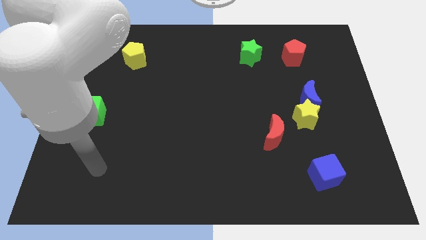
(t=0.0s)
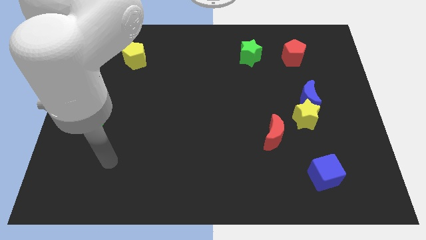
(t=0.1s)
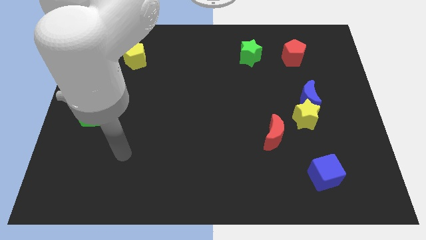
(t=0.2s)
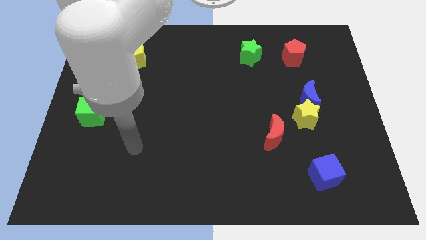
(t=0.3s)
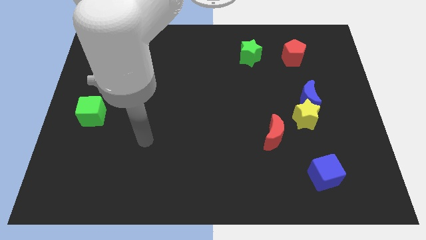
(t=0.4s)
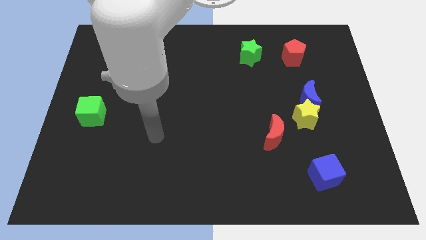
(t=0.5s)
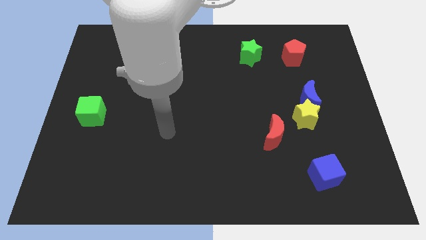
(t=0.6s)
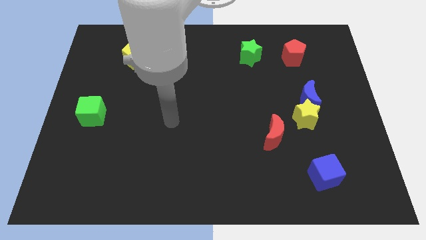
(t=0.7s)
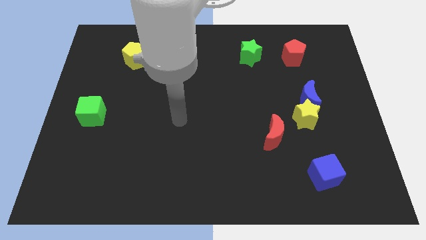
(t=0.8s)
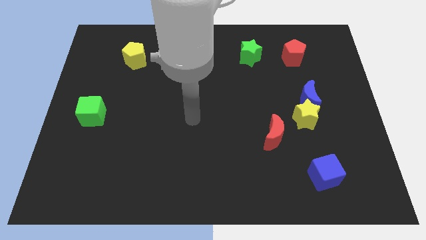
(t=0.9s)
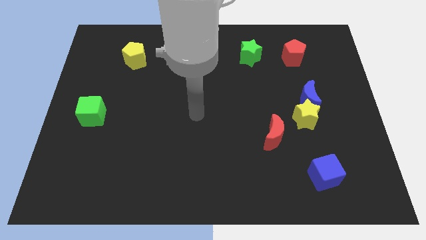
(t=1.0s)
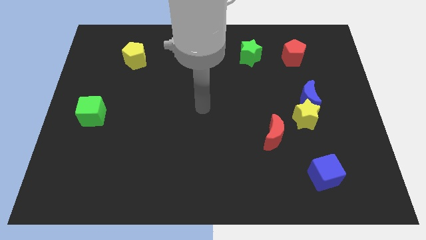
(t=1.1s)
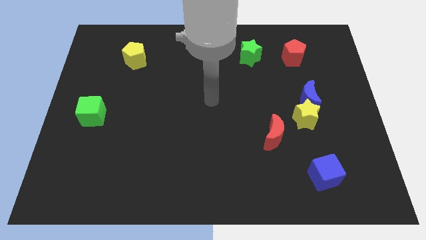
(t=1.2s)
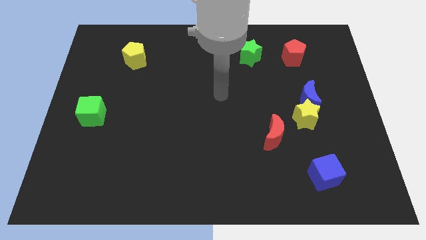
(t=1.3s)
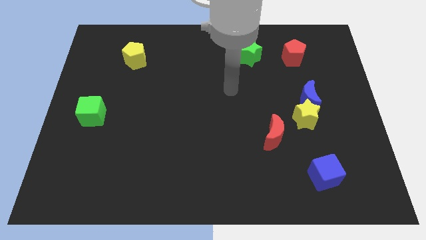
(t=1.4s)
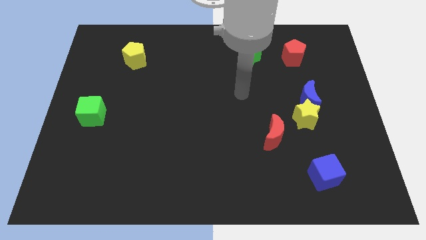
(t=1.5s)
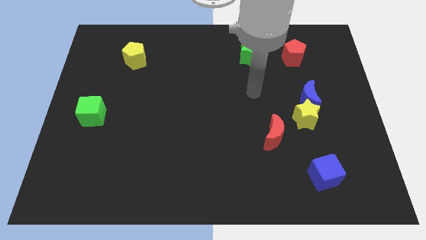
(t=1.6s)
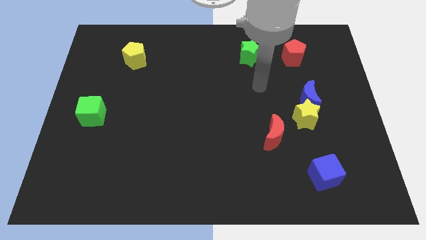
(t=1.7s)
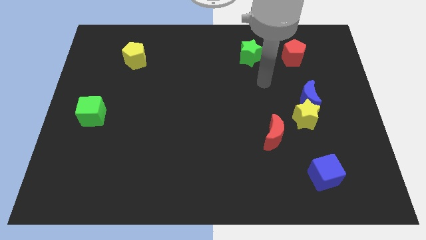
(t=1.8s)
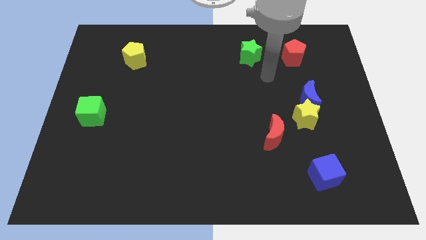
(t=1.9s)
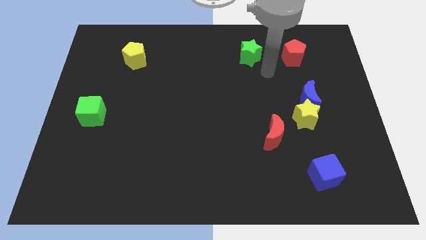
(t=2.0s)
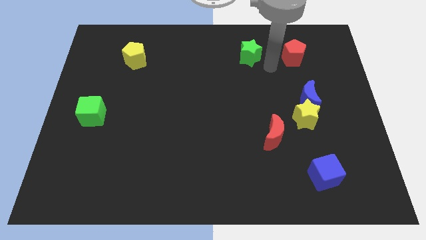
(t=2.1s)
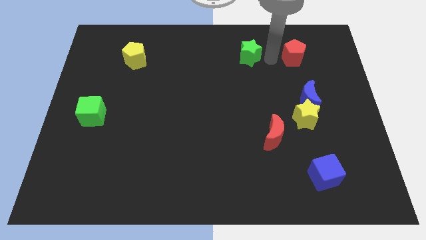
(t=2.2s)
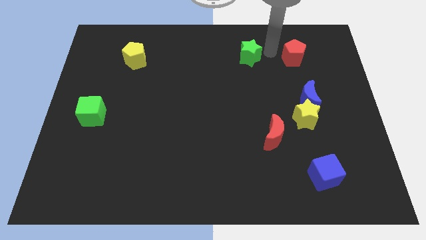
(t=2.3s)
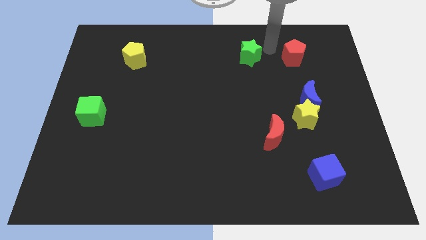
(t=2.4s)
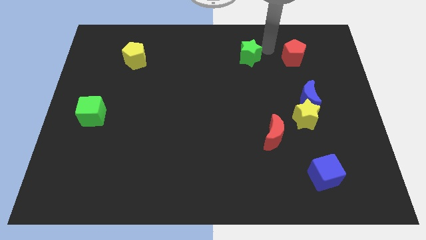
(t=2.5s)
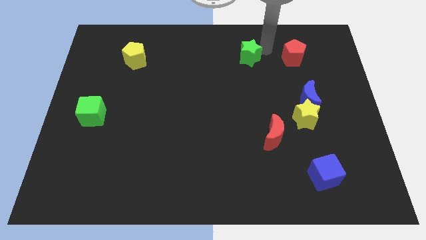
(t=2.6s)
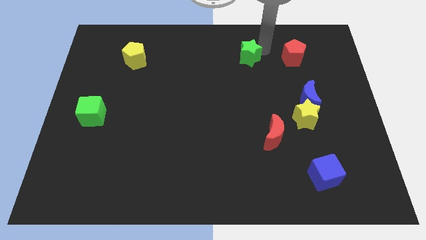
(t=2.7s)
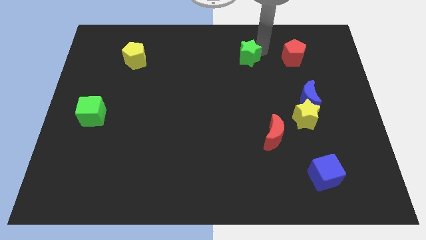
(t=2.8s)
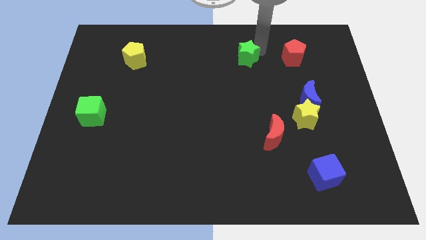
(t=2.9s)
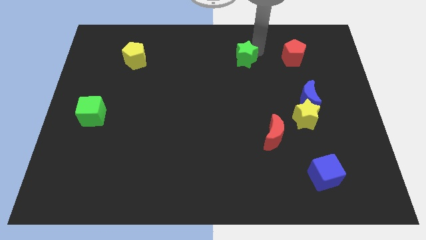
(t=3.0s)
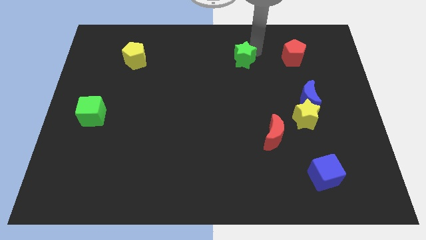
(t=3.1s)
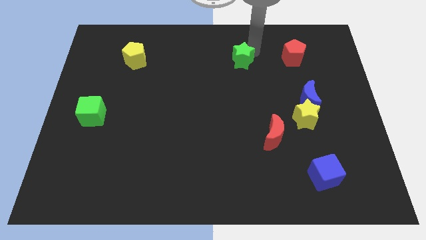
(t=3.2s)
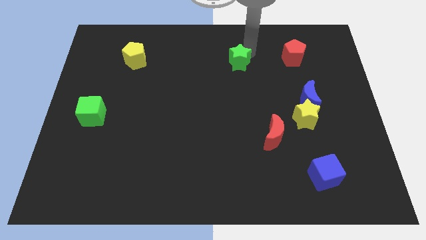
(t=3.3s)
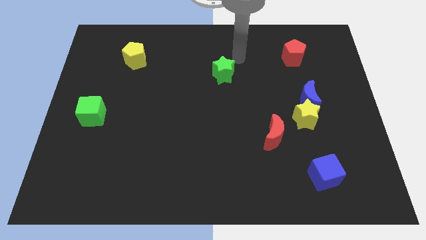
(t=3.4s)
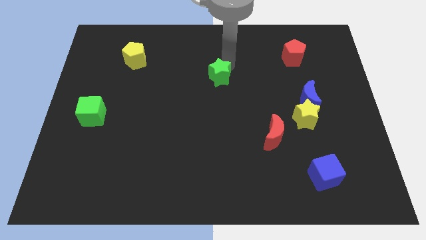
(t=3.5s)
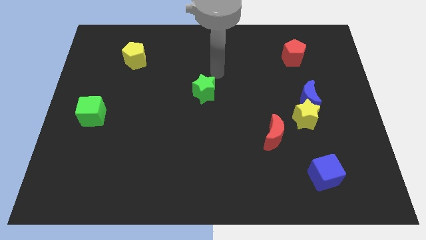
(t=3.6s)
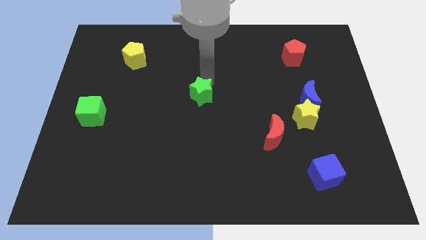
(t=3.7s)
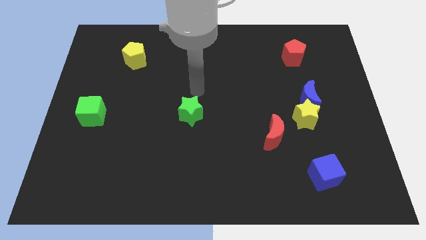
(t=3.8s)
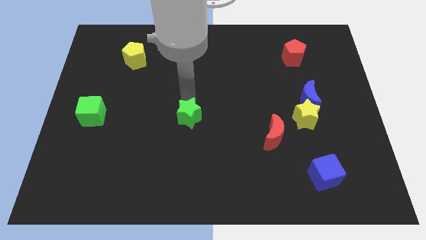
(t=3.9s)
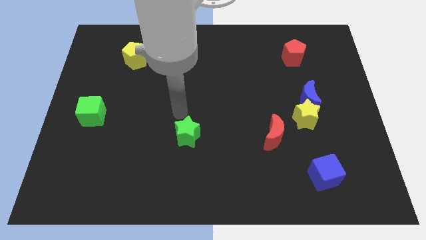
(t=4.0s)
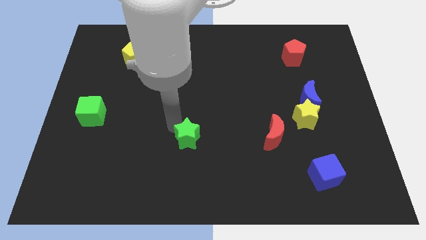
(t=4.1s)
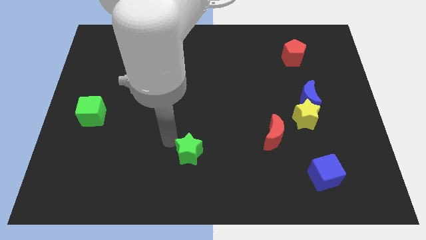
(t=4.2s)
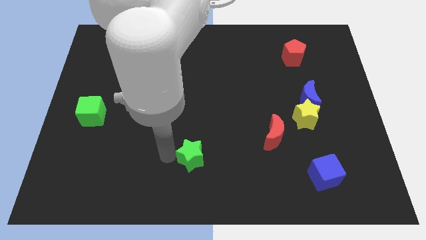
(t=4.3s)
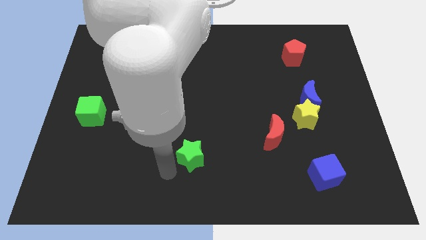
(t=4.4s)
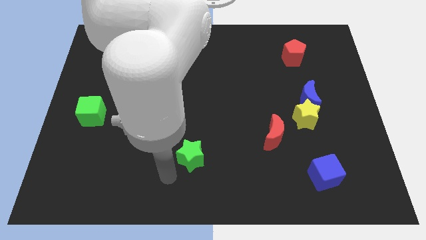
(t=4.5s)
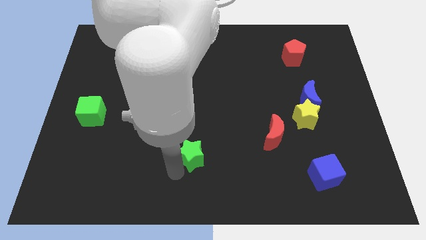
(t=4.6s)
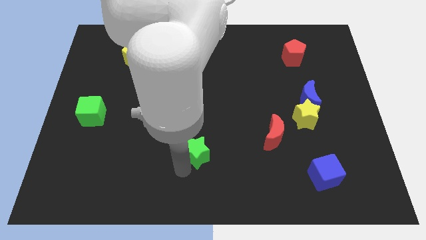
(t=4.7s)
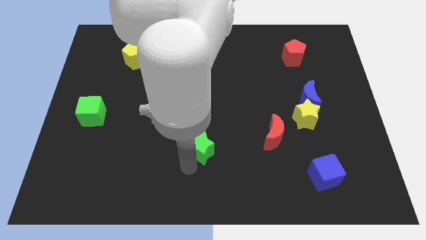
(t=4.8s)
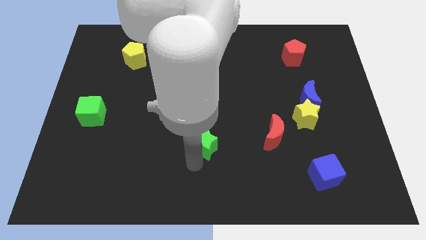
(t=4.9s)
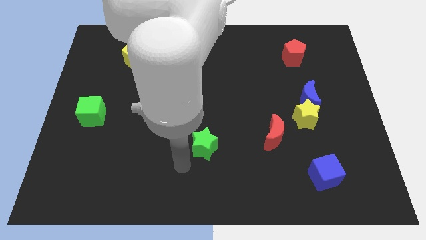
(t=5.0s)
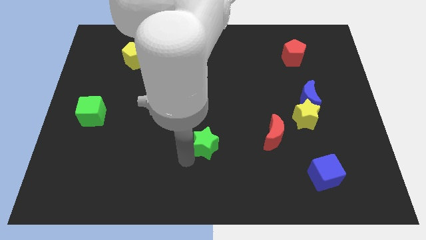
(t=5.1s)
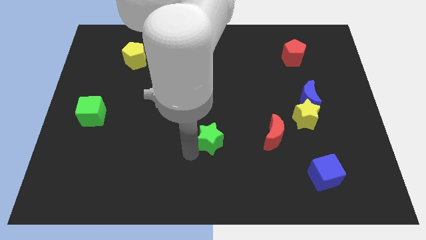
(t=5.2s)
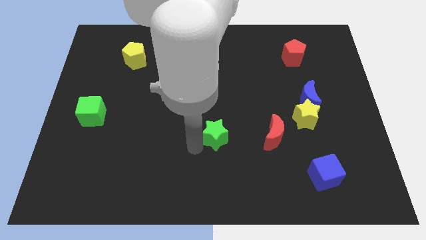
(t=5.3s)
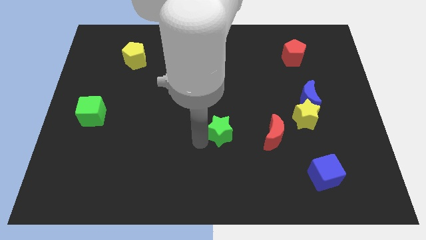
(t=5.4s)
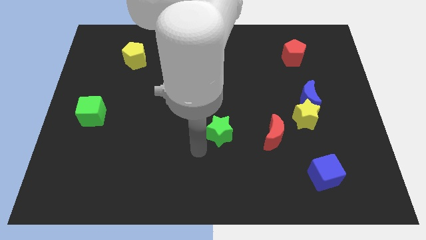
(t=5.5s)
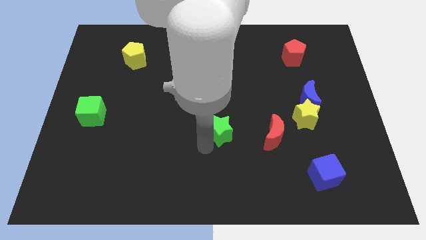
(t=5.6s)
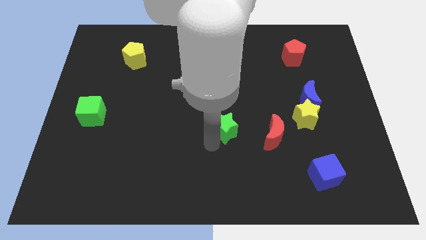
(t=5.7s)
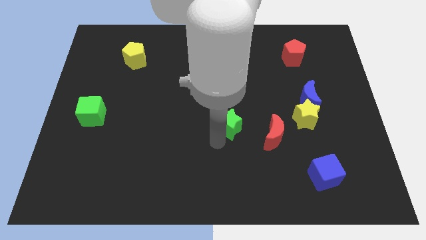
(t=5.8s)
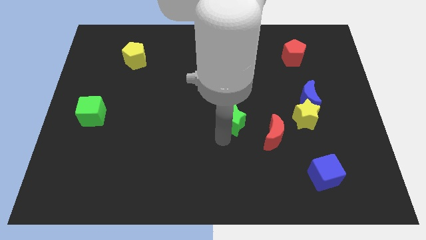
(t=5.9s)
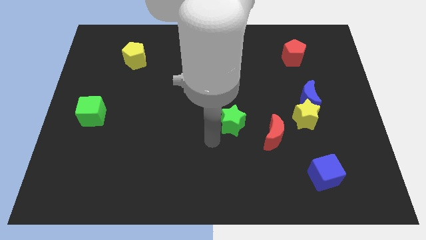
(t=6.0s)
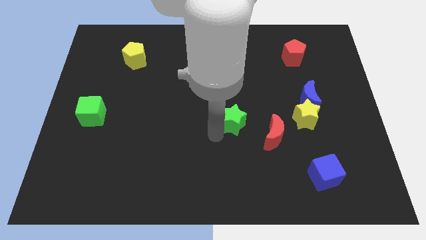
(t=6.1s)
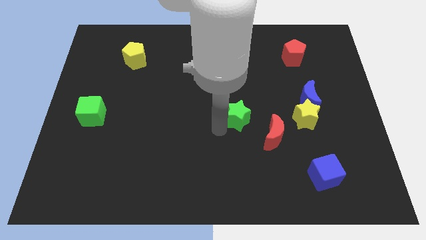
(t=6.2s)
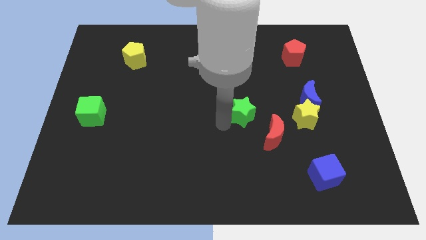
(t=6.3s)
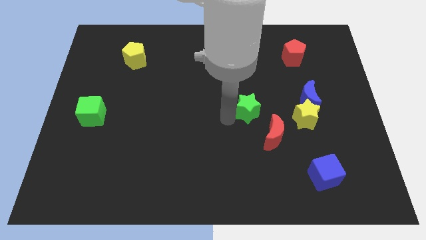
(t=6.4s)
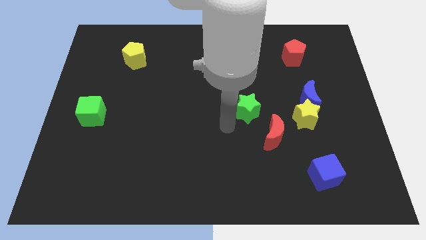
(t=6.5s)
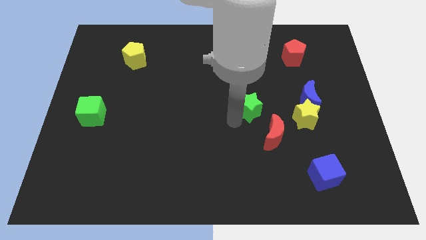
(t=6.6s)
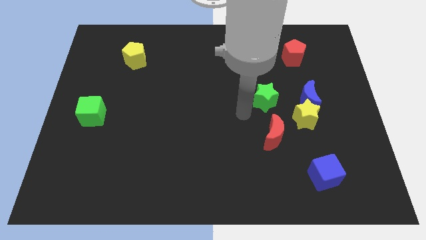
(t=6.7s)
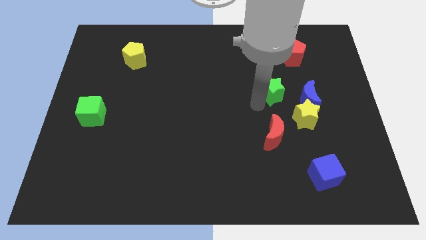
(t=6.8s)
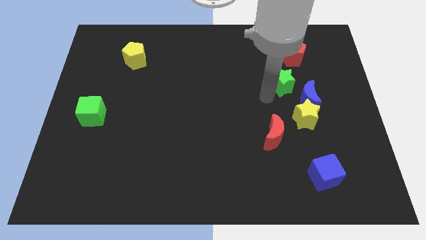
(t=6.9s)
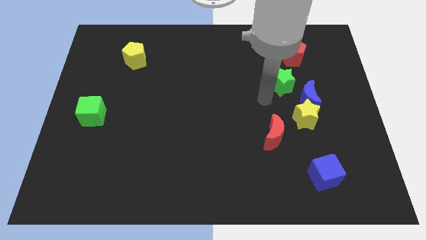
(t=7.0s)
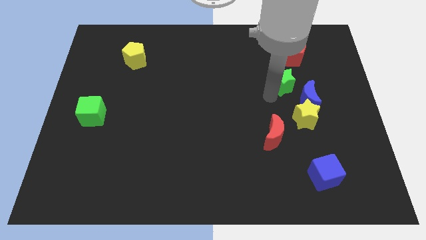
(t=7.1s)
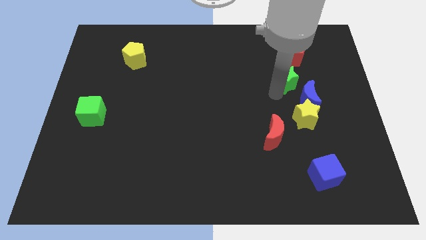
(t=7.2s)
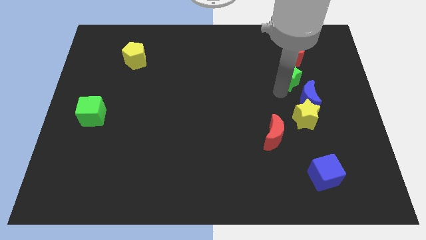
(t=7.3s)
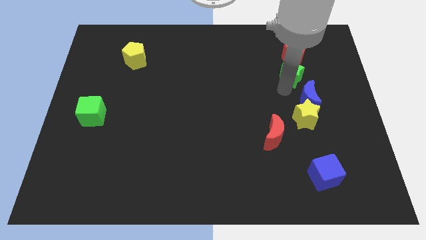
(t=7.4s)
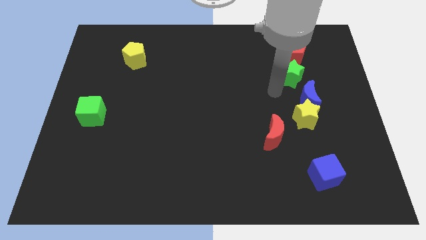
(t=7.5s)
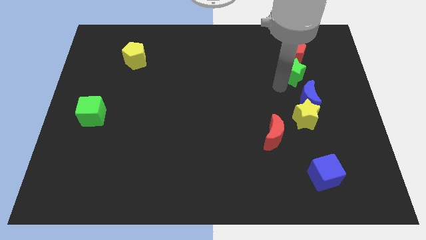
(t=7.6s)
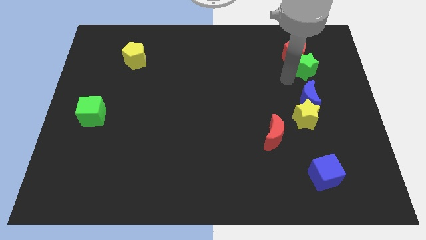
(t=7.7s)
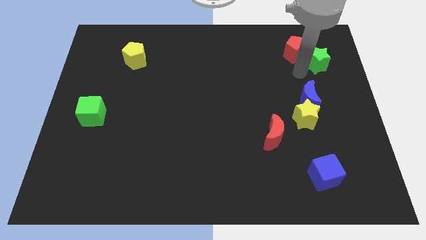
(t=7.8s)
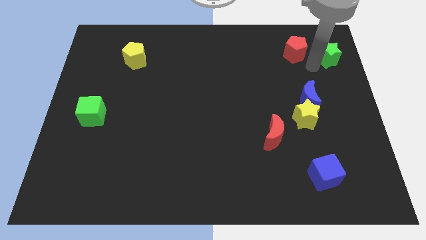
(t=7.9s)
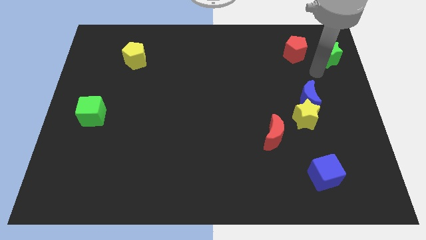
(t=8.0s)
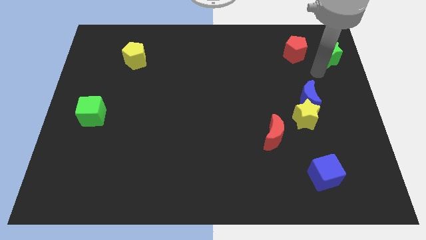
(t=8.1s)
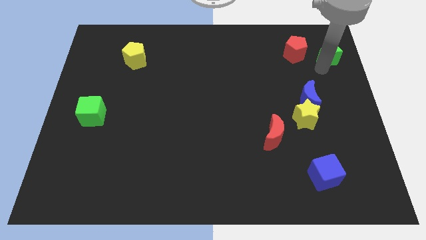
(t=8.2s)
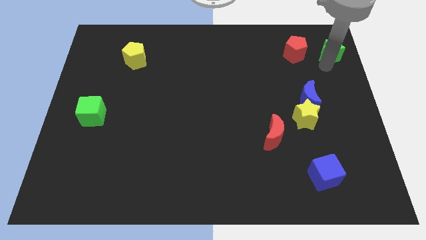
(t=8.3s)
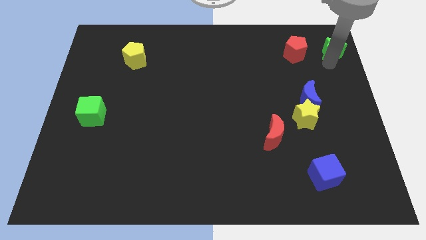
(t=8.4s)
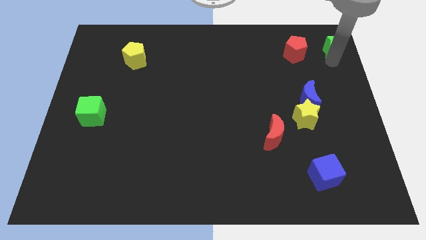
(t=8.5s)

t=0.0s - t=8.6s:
push the green star to the top right of the board
